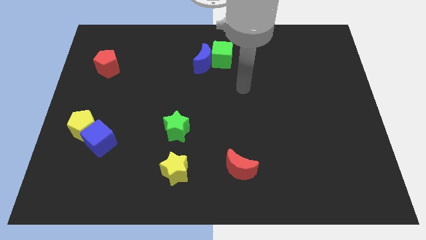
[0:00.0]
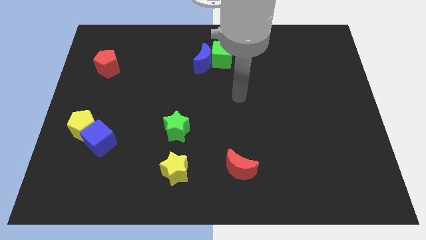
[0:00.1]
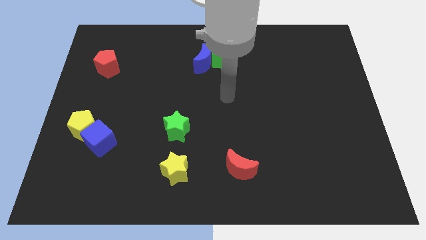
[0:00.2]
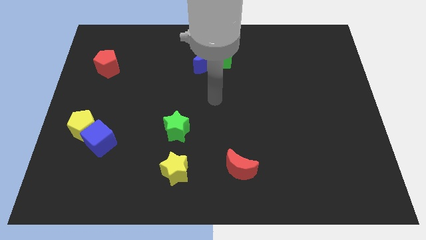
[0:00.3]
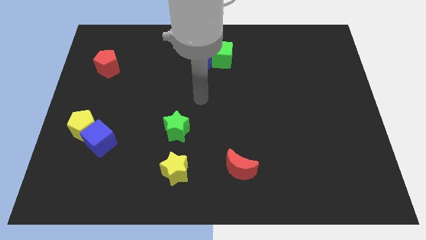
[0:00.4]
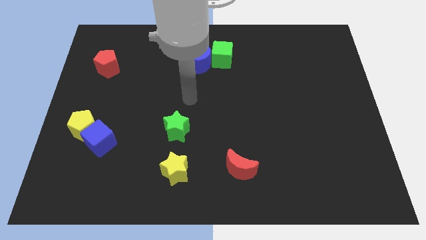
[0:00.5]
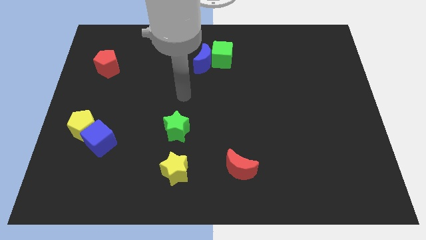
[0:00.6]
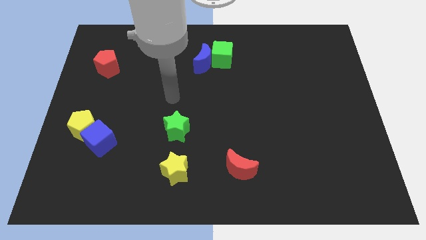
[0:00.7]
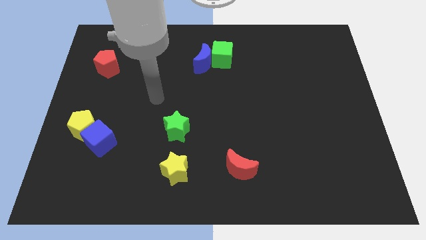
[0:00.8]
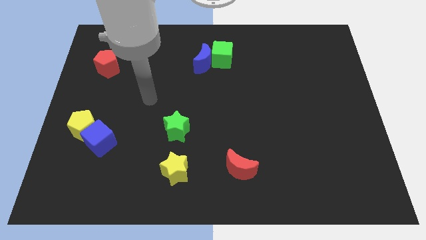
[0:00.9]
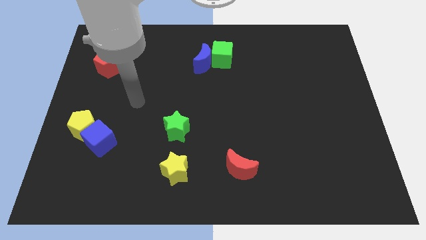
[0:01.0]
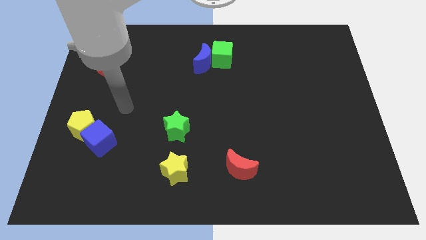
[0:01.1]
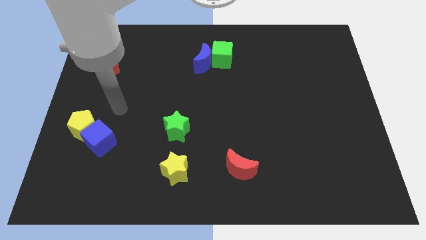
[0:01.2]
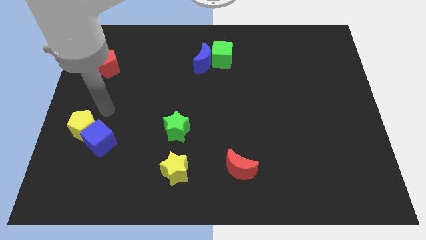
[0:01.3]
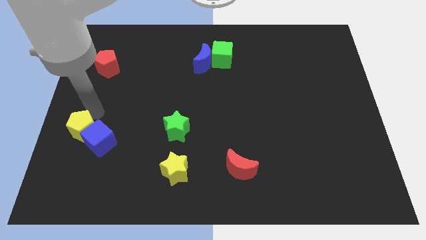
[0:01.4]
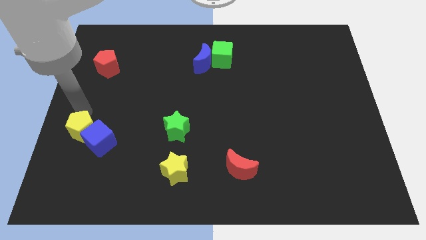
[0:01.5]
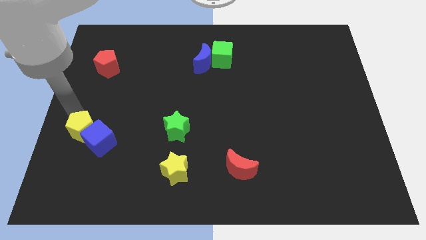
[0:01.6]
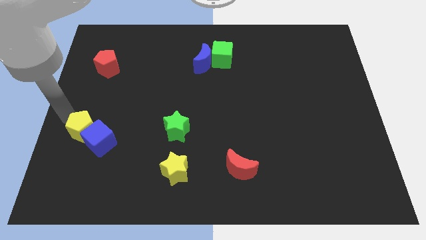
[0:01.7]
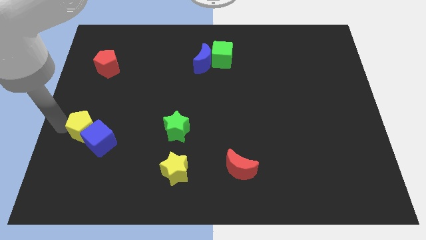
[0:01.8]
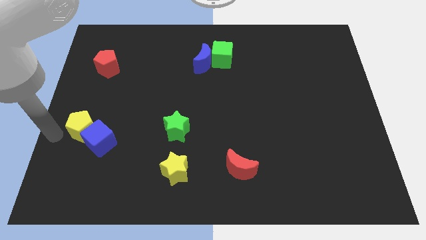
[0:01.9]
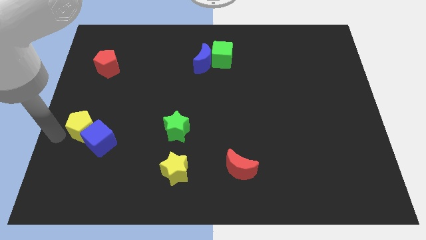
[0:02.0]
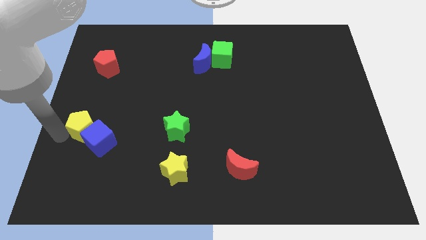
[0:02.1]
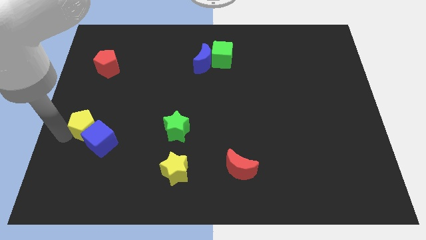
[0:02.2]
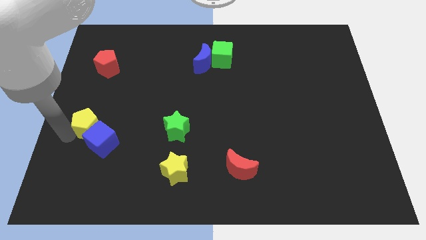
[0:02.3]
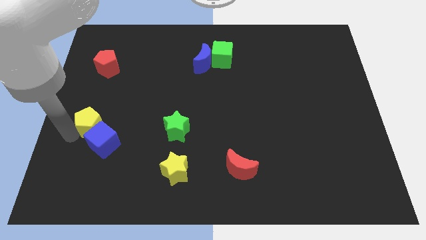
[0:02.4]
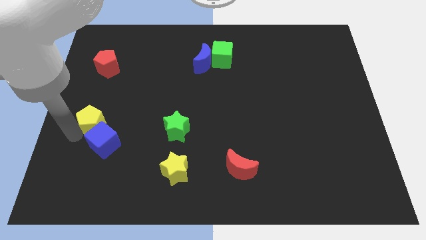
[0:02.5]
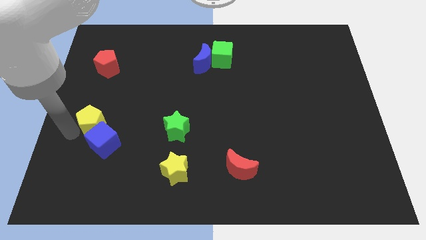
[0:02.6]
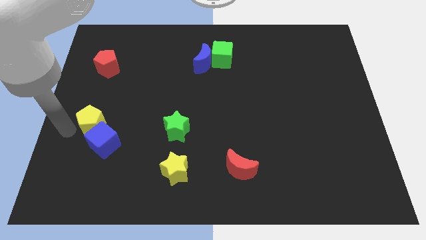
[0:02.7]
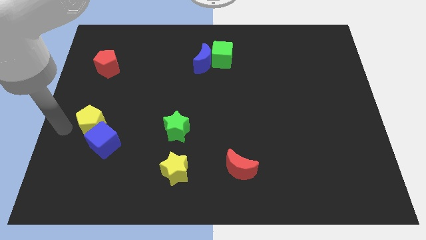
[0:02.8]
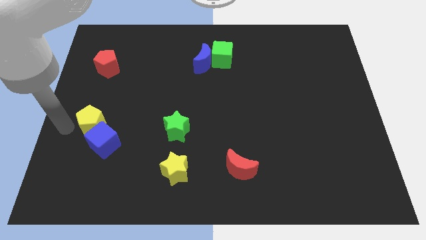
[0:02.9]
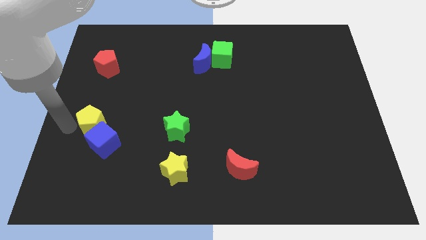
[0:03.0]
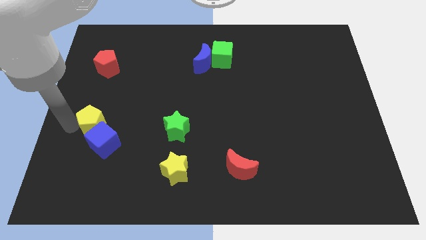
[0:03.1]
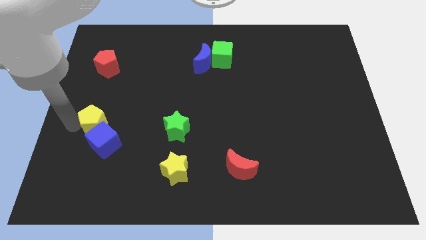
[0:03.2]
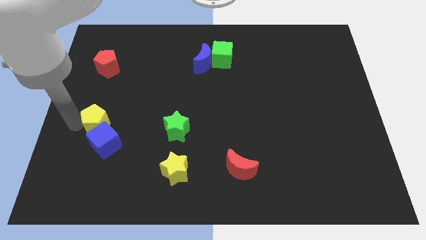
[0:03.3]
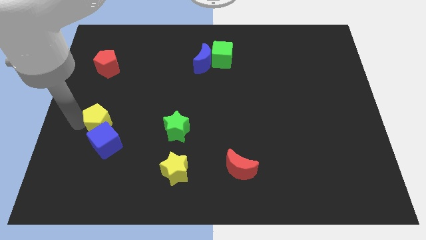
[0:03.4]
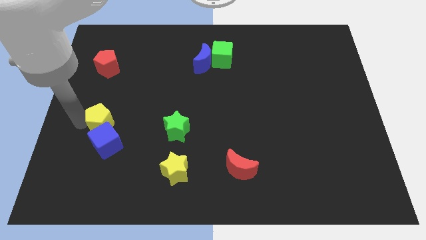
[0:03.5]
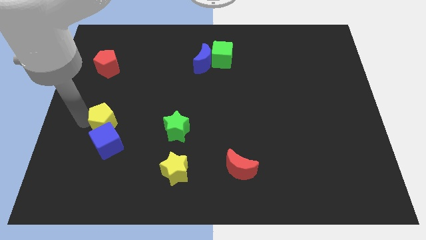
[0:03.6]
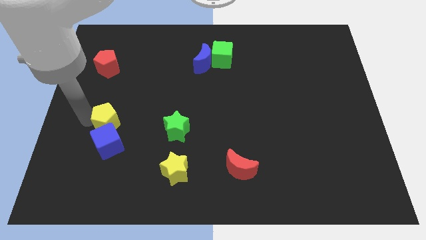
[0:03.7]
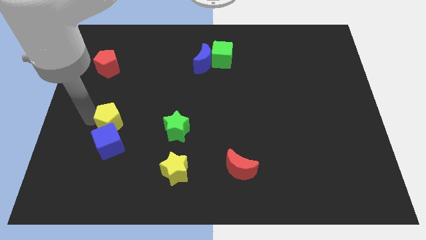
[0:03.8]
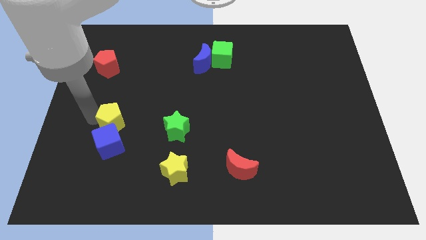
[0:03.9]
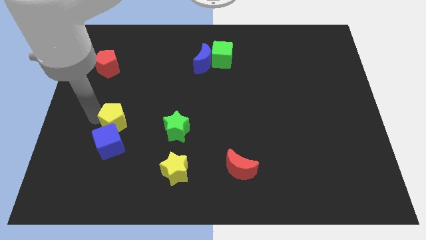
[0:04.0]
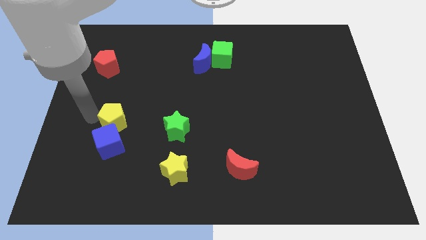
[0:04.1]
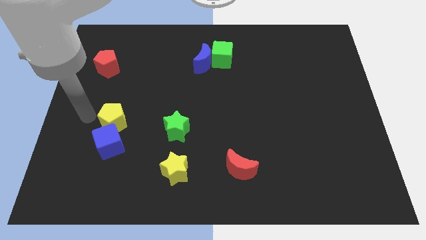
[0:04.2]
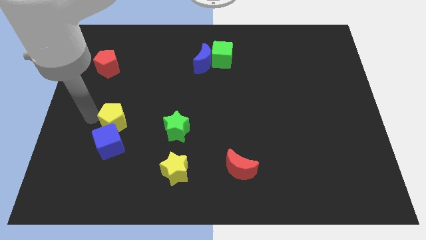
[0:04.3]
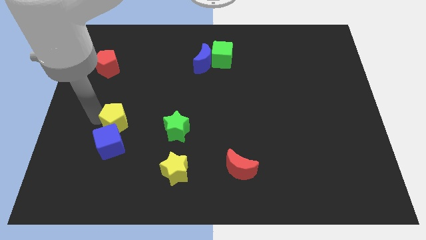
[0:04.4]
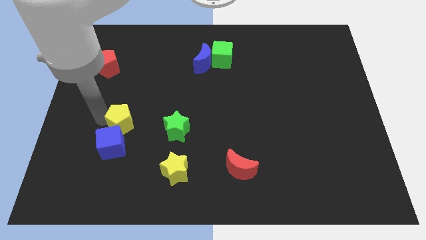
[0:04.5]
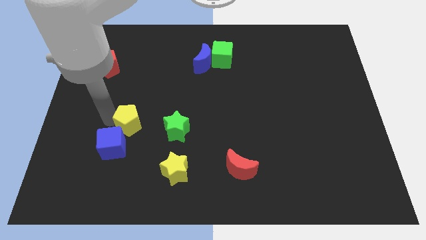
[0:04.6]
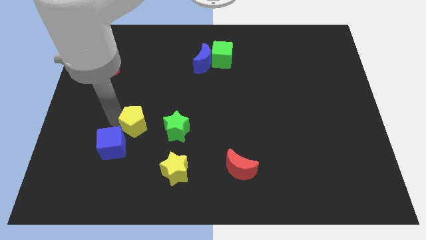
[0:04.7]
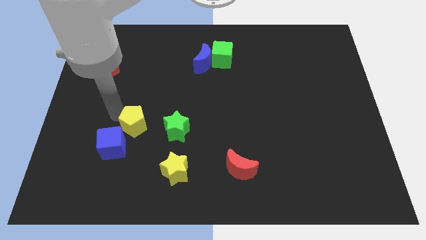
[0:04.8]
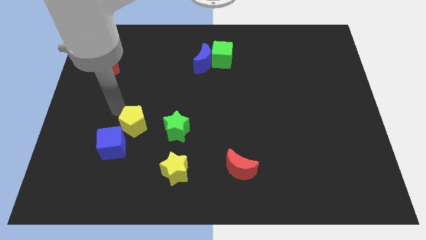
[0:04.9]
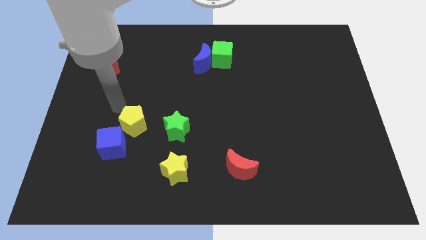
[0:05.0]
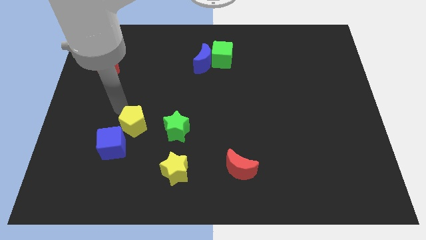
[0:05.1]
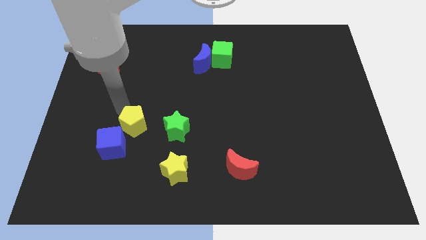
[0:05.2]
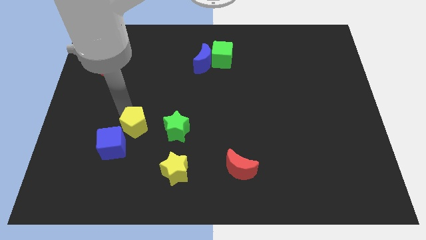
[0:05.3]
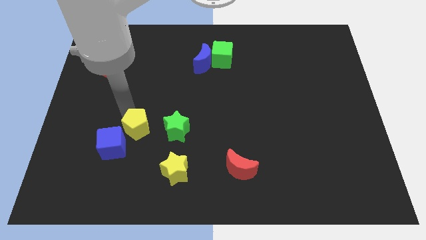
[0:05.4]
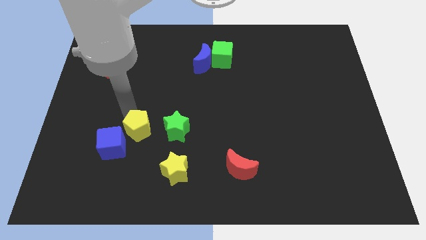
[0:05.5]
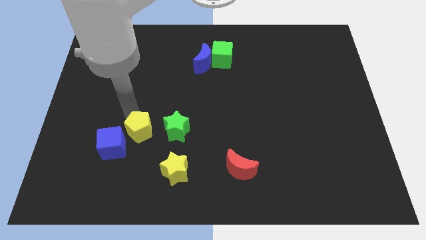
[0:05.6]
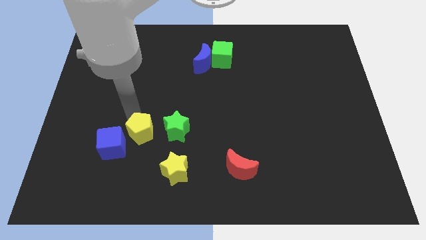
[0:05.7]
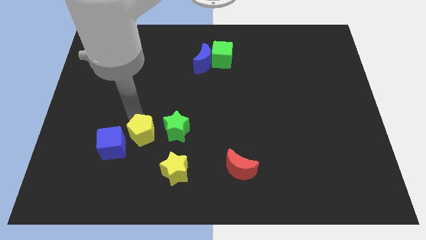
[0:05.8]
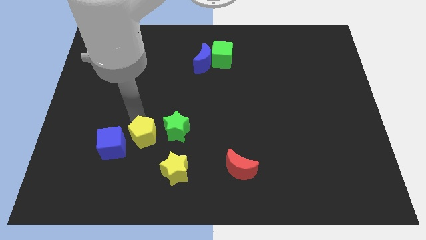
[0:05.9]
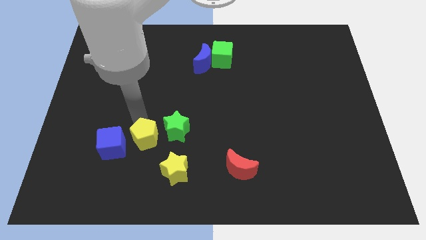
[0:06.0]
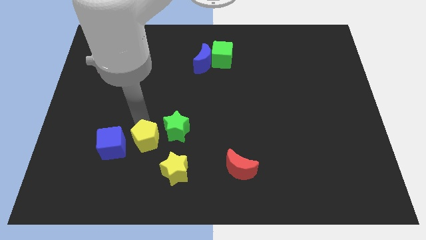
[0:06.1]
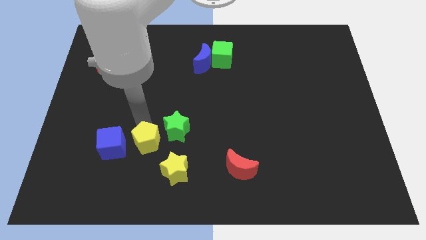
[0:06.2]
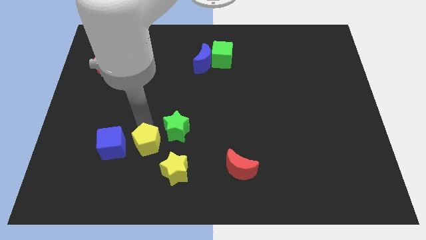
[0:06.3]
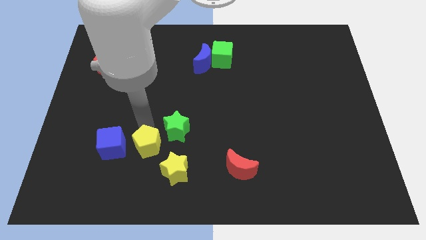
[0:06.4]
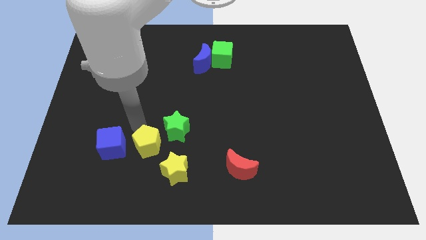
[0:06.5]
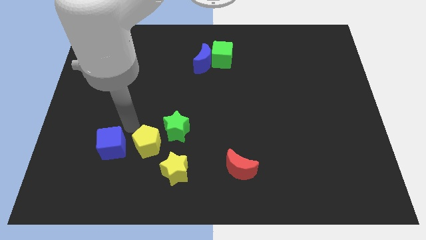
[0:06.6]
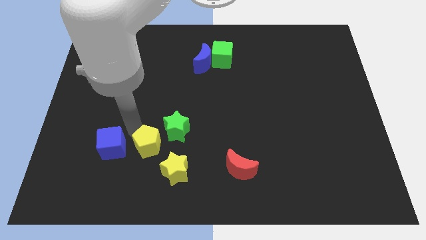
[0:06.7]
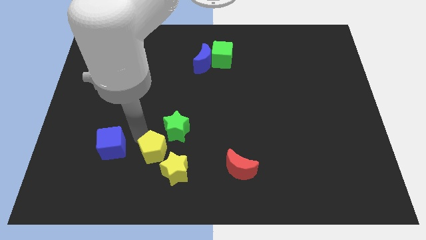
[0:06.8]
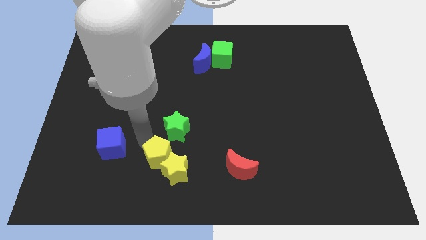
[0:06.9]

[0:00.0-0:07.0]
put the yellow pentagon next to the yellow star
